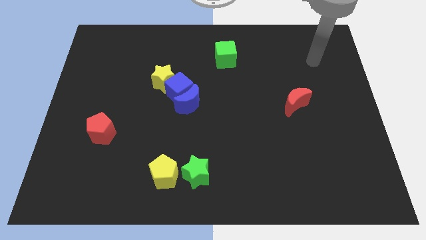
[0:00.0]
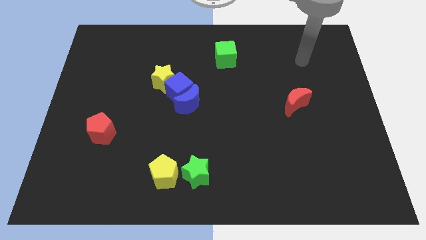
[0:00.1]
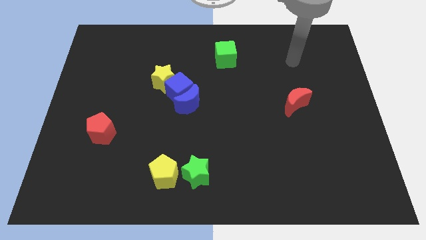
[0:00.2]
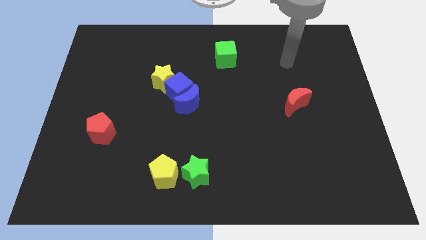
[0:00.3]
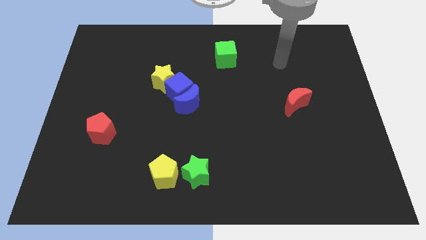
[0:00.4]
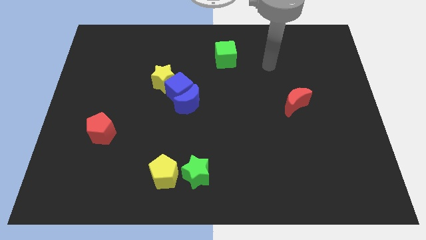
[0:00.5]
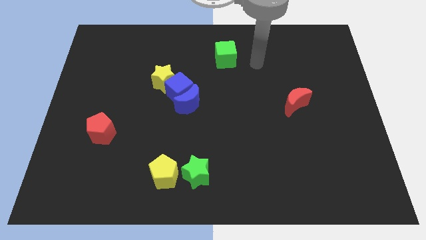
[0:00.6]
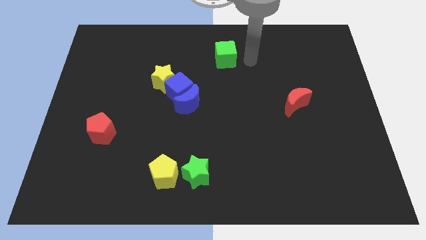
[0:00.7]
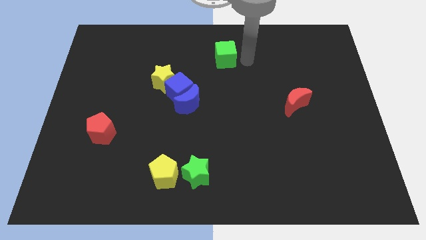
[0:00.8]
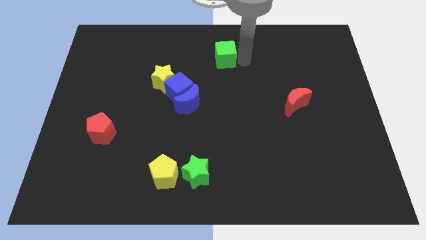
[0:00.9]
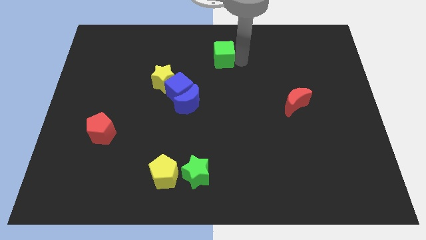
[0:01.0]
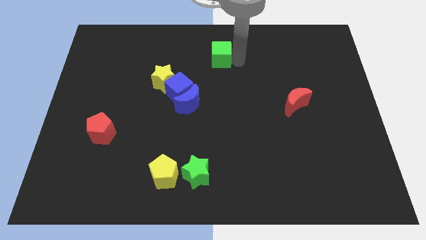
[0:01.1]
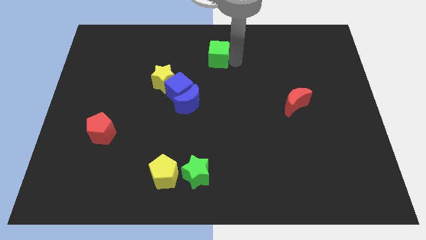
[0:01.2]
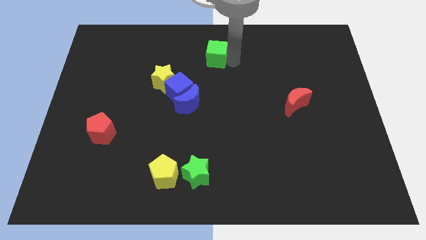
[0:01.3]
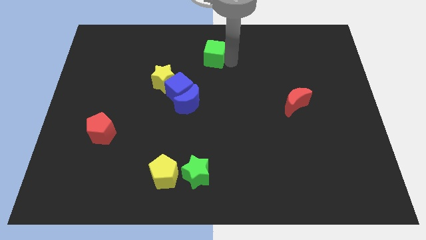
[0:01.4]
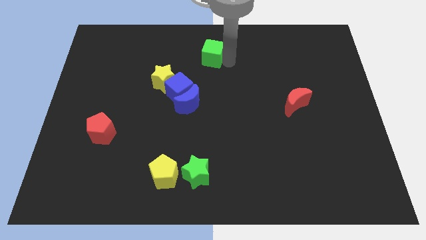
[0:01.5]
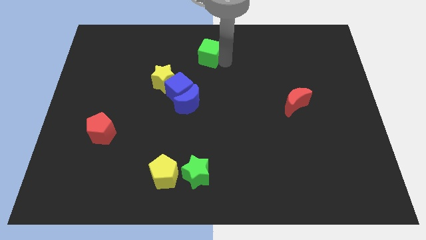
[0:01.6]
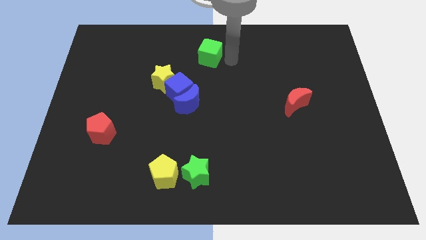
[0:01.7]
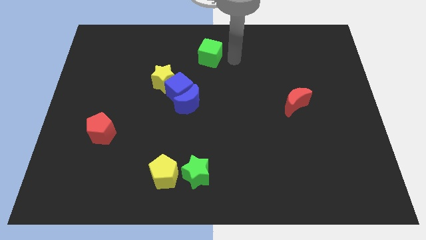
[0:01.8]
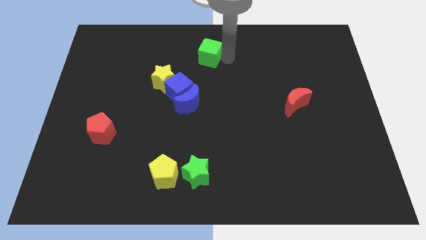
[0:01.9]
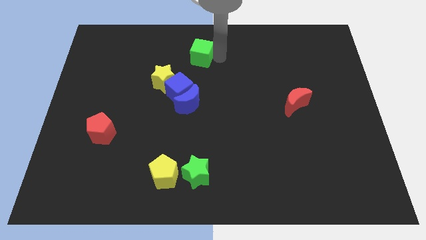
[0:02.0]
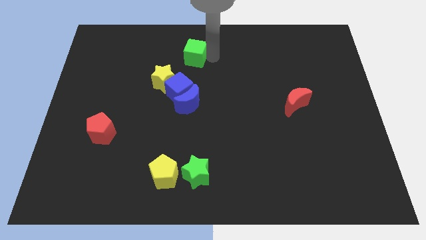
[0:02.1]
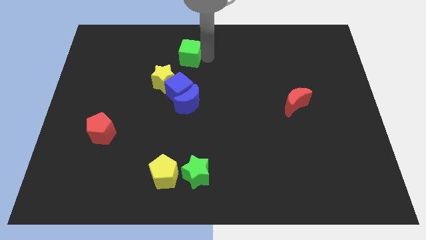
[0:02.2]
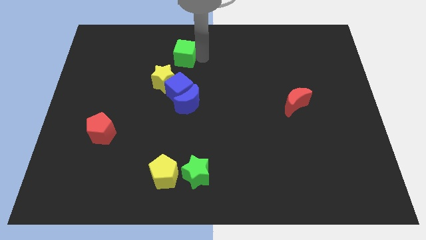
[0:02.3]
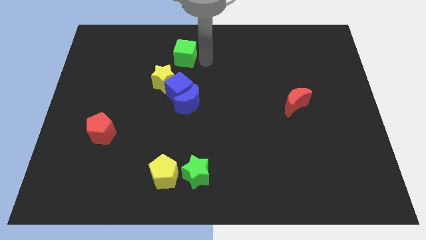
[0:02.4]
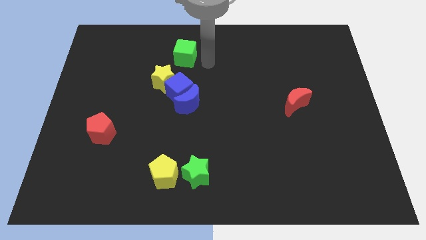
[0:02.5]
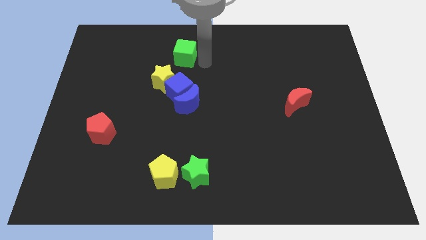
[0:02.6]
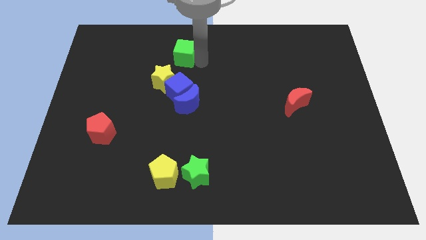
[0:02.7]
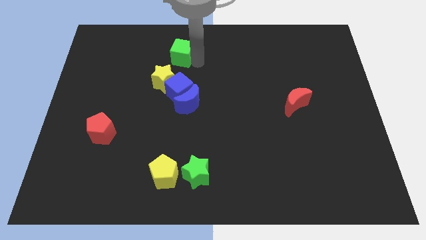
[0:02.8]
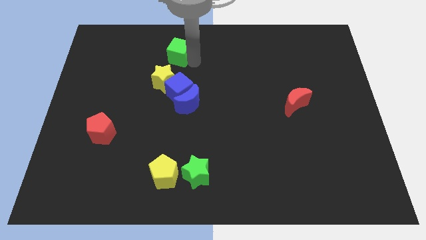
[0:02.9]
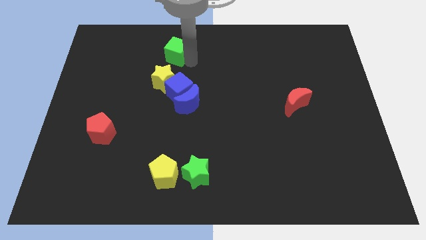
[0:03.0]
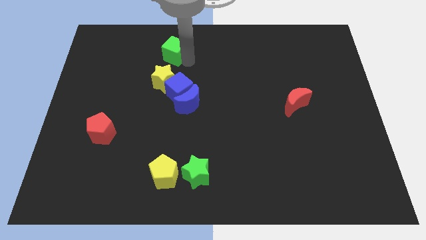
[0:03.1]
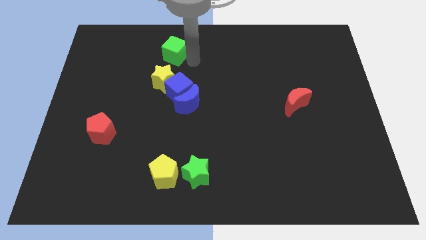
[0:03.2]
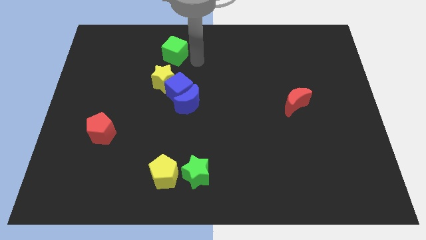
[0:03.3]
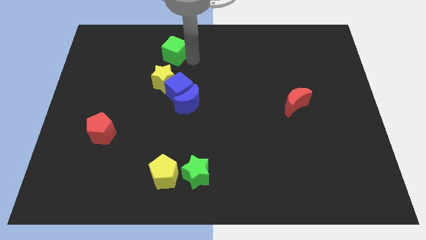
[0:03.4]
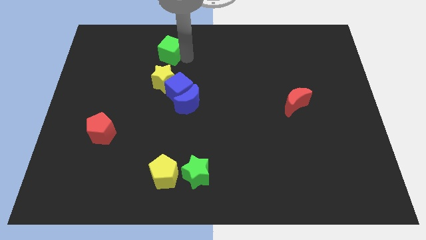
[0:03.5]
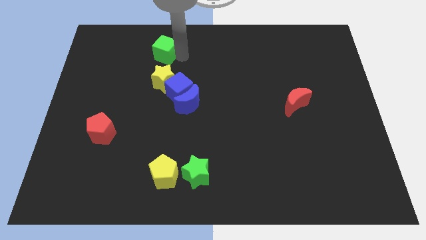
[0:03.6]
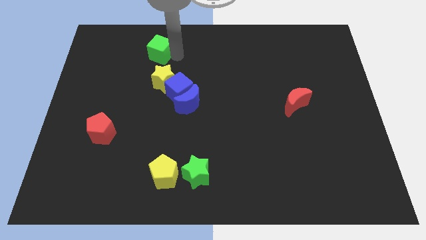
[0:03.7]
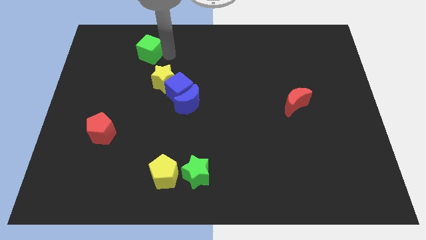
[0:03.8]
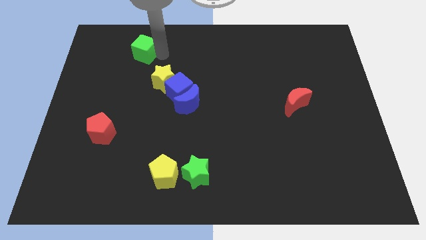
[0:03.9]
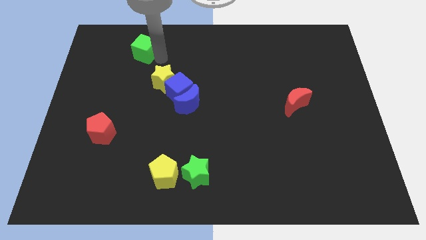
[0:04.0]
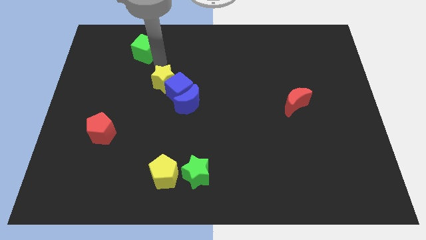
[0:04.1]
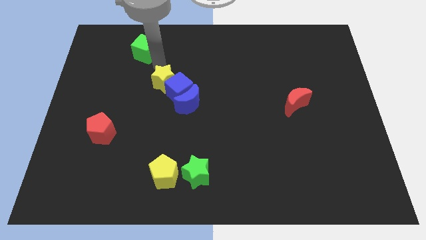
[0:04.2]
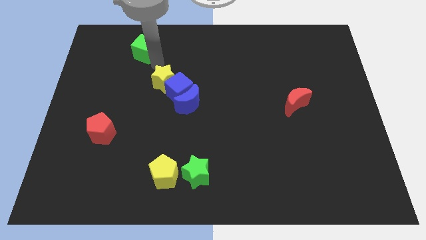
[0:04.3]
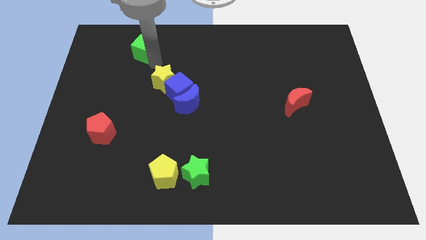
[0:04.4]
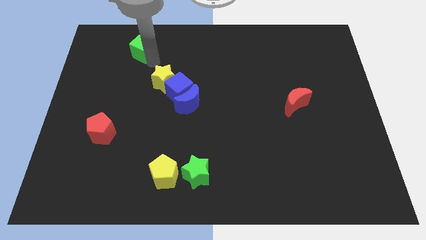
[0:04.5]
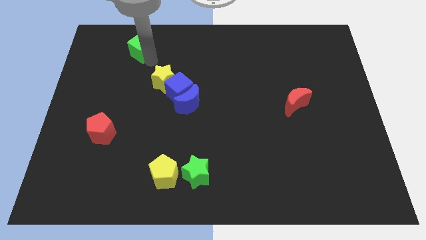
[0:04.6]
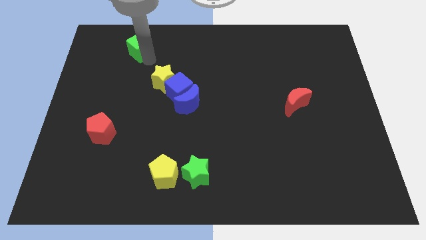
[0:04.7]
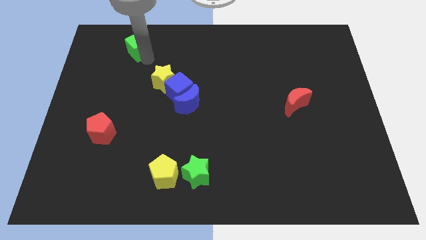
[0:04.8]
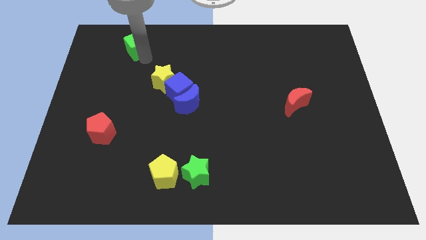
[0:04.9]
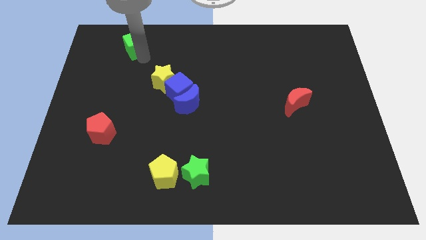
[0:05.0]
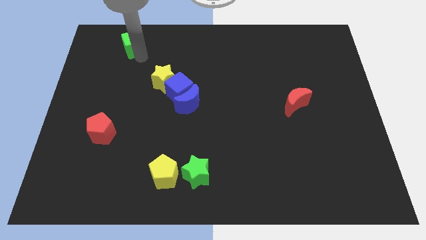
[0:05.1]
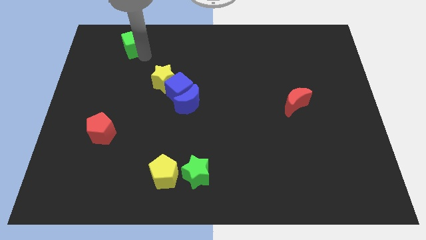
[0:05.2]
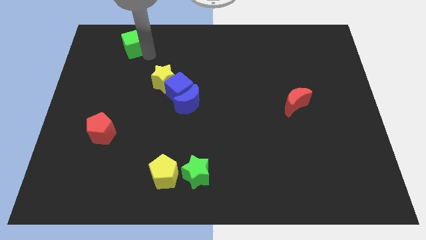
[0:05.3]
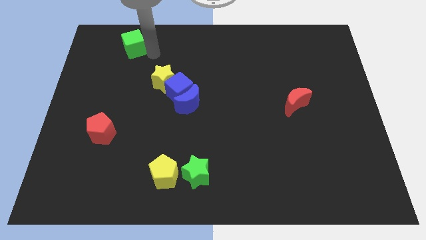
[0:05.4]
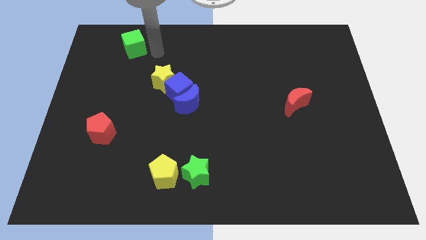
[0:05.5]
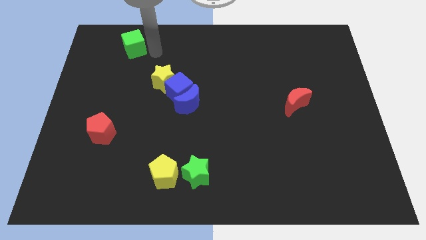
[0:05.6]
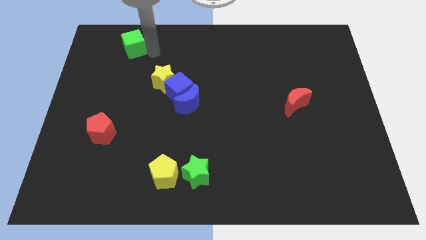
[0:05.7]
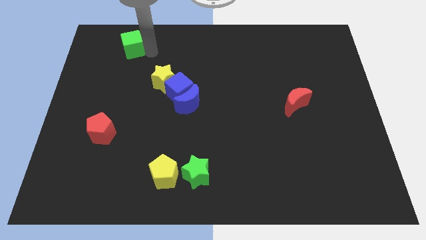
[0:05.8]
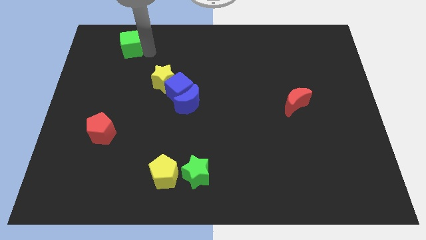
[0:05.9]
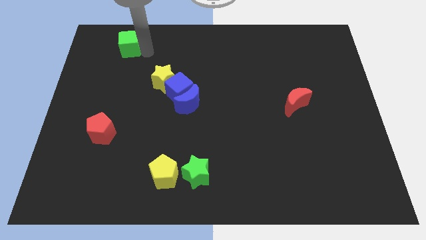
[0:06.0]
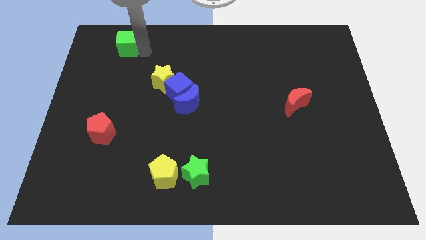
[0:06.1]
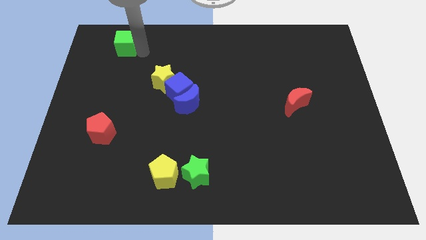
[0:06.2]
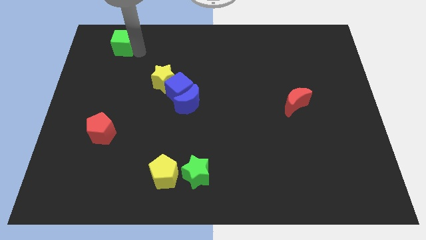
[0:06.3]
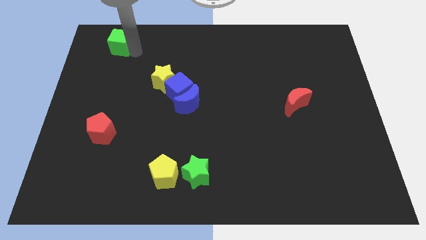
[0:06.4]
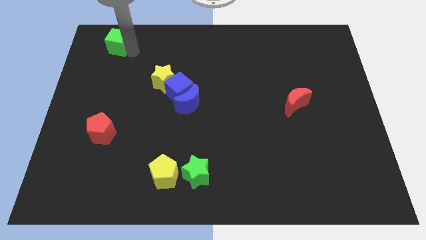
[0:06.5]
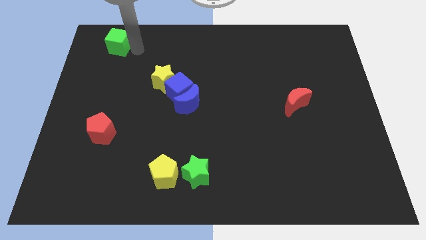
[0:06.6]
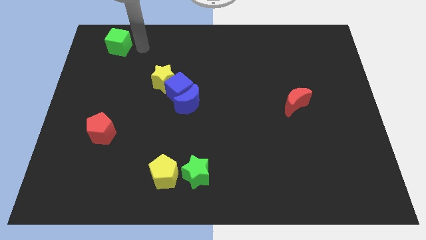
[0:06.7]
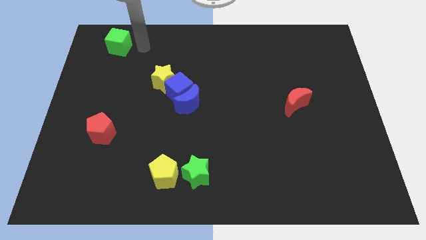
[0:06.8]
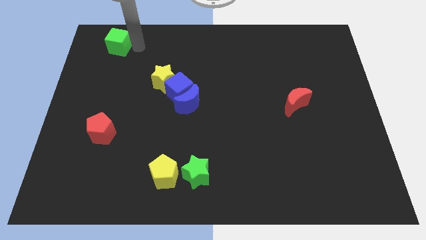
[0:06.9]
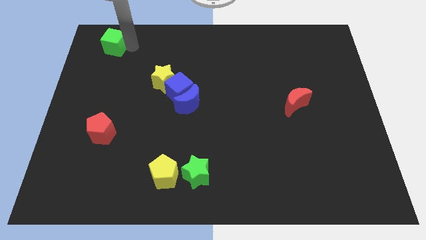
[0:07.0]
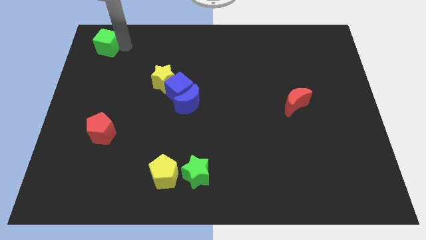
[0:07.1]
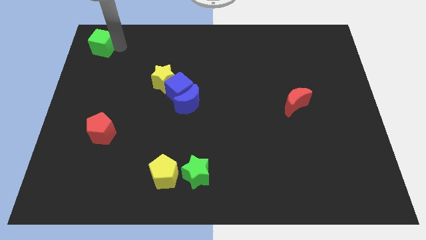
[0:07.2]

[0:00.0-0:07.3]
put the green cube to the top left corner

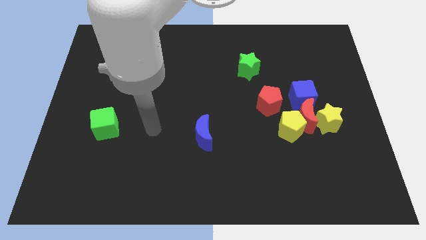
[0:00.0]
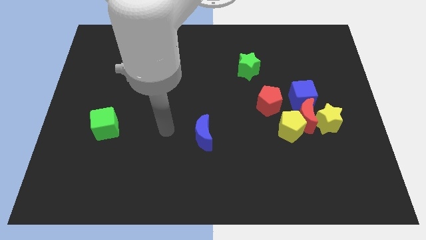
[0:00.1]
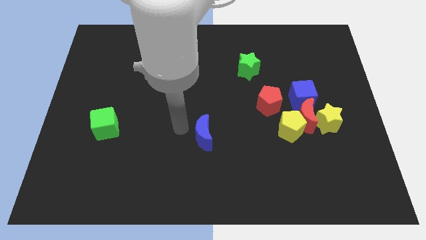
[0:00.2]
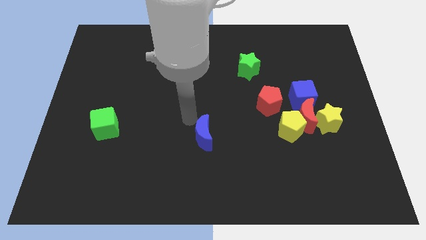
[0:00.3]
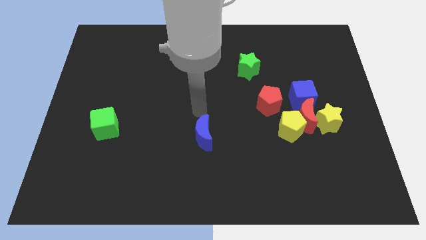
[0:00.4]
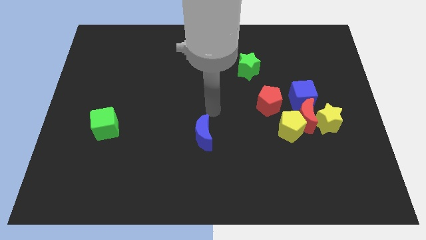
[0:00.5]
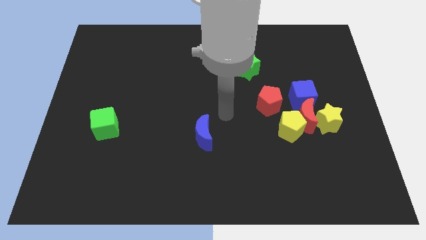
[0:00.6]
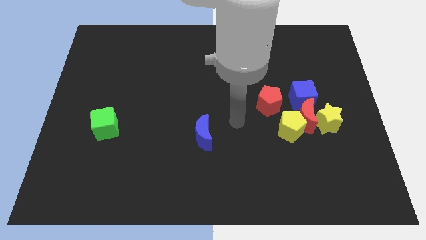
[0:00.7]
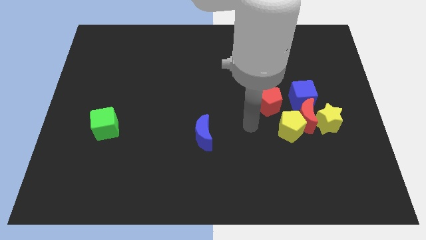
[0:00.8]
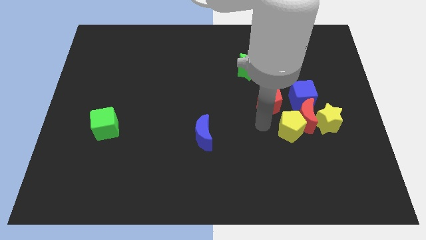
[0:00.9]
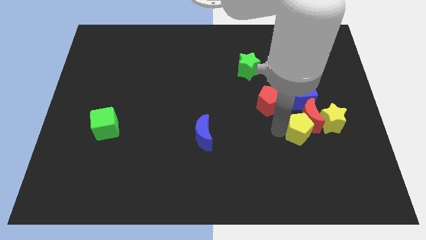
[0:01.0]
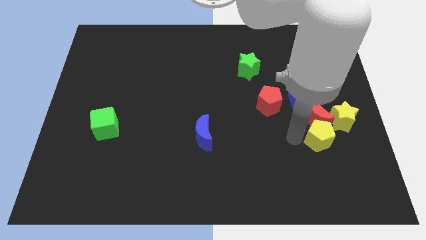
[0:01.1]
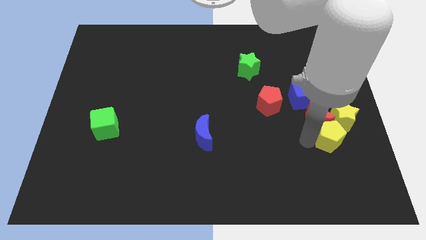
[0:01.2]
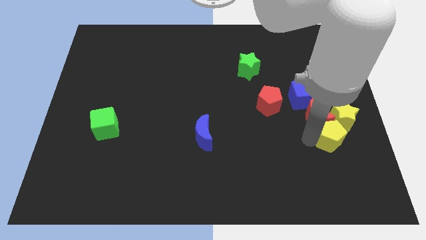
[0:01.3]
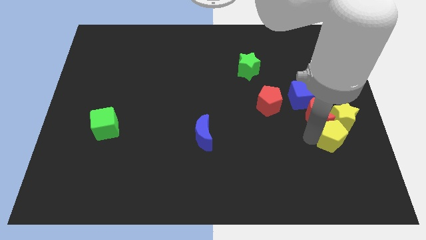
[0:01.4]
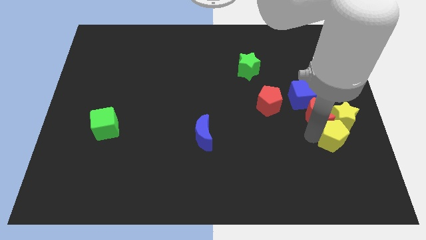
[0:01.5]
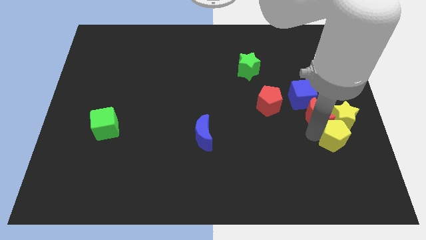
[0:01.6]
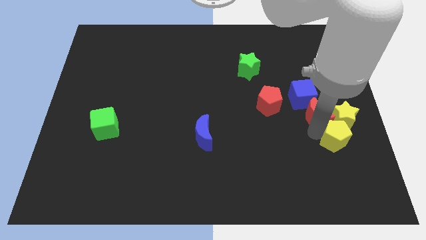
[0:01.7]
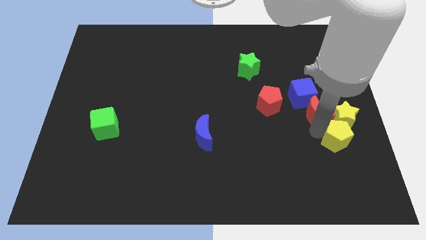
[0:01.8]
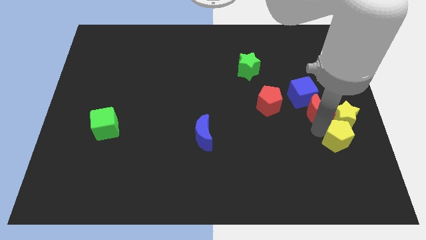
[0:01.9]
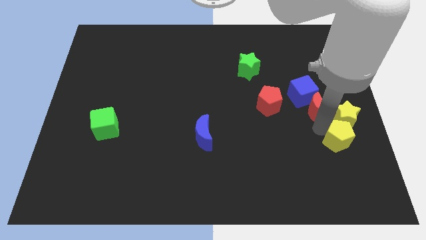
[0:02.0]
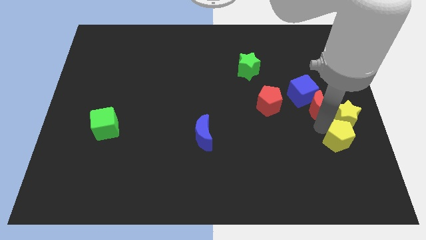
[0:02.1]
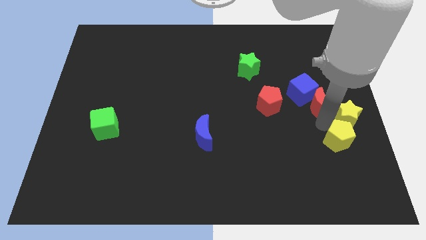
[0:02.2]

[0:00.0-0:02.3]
put the red moon to the center right
